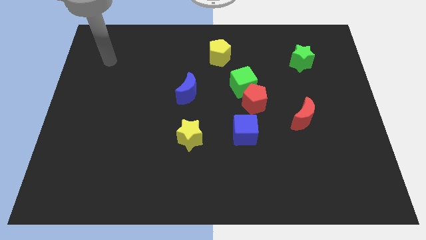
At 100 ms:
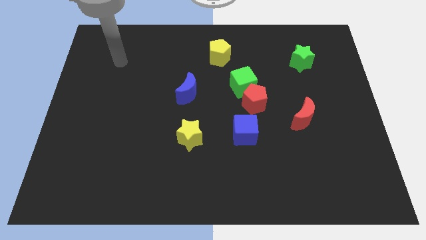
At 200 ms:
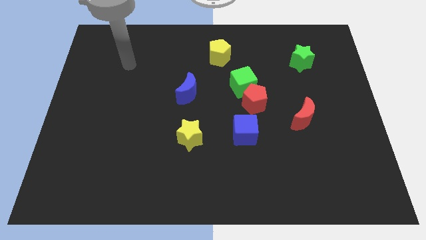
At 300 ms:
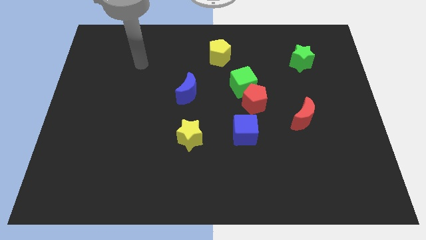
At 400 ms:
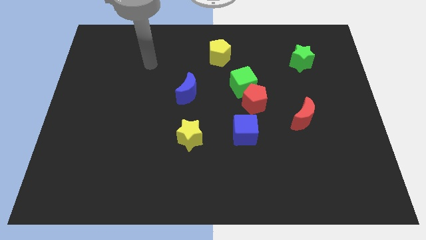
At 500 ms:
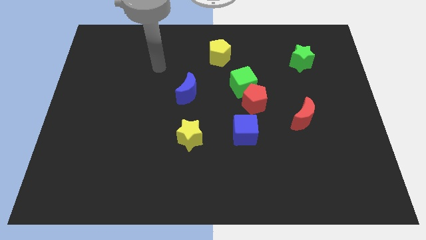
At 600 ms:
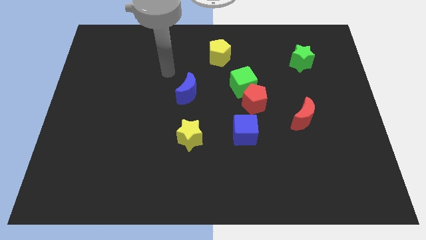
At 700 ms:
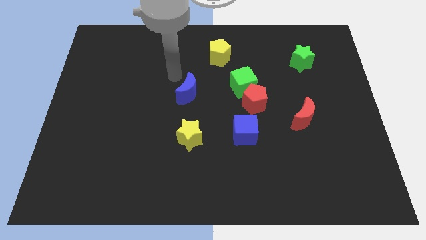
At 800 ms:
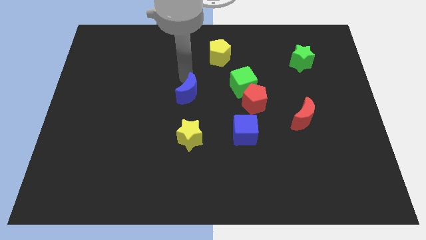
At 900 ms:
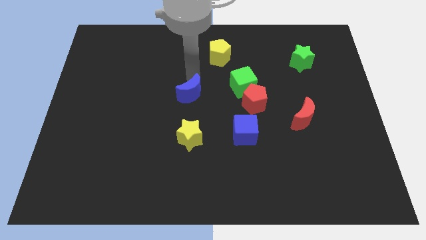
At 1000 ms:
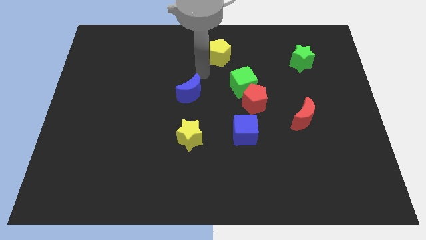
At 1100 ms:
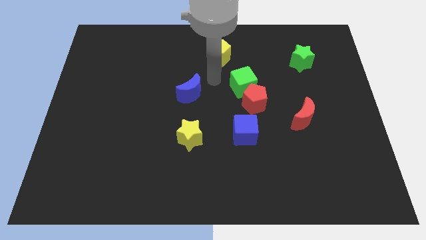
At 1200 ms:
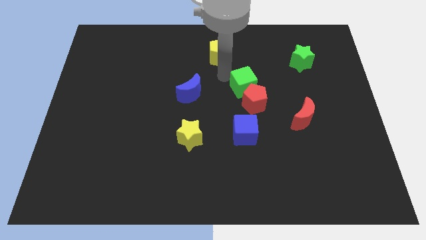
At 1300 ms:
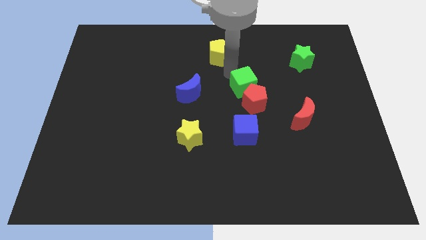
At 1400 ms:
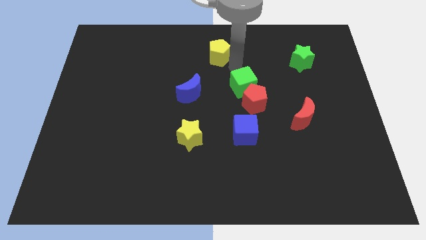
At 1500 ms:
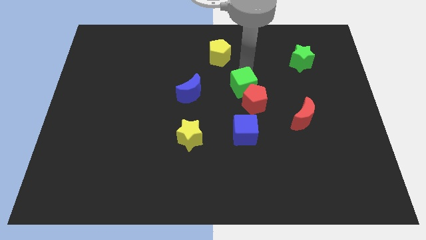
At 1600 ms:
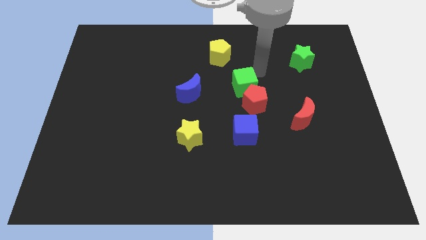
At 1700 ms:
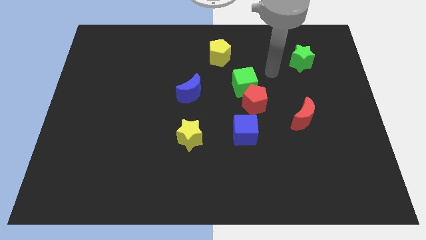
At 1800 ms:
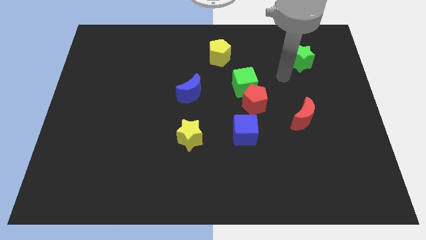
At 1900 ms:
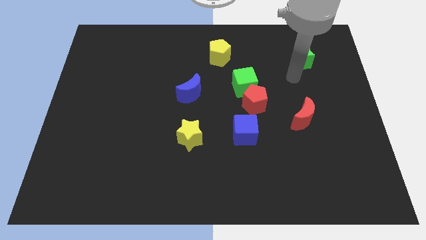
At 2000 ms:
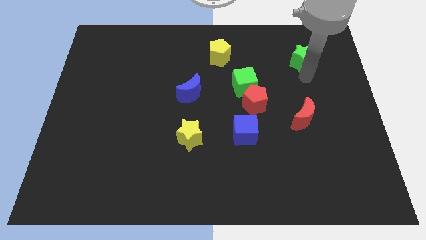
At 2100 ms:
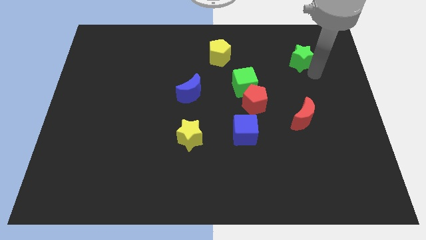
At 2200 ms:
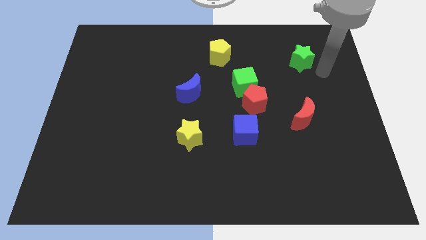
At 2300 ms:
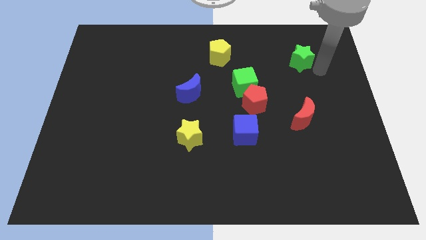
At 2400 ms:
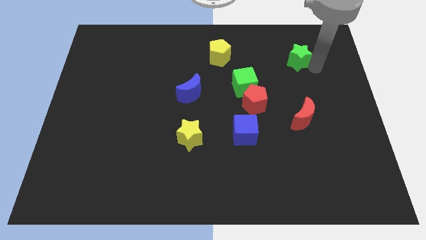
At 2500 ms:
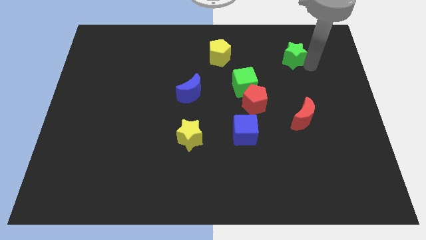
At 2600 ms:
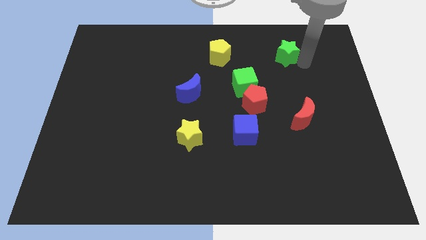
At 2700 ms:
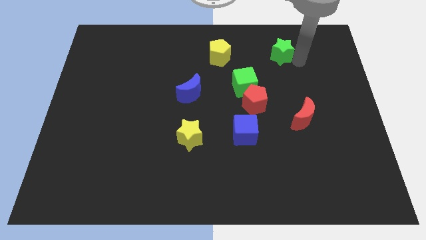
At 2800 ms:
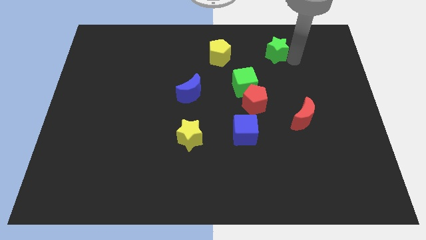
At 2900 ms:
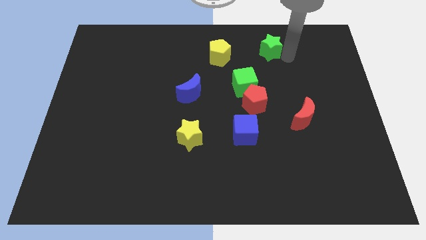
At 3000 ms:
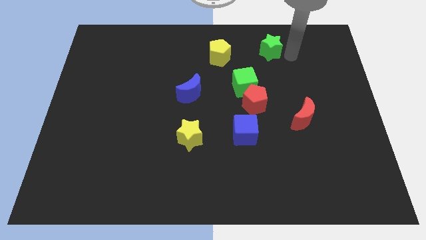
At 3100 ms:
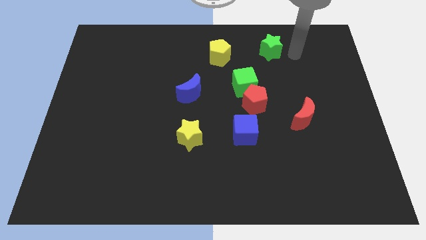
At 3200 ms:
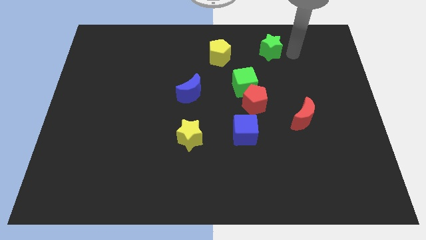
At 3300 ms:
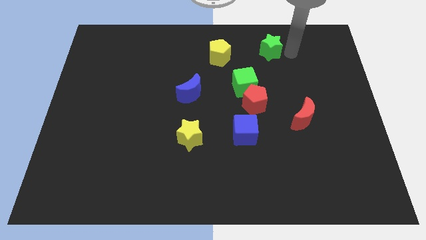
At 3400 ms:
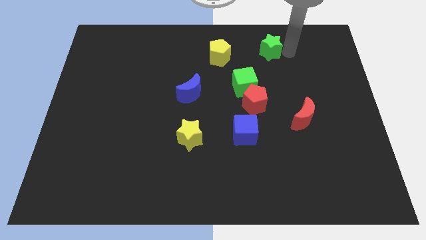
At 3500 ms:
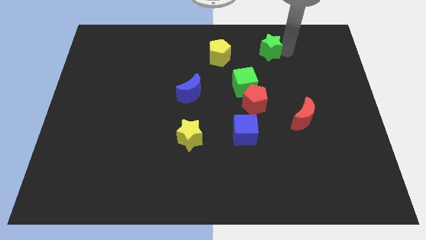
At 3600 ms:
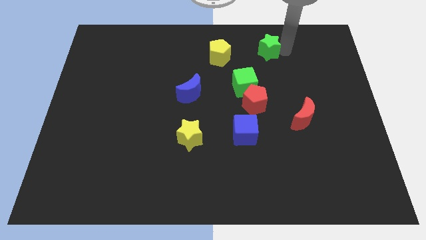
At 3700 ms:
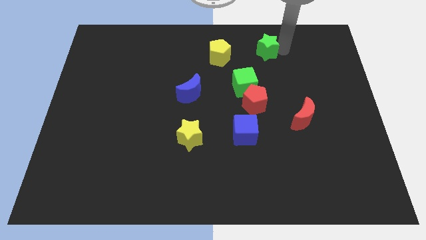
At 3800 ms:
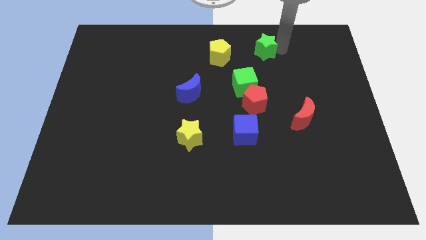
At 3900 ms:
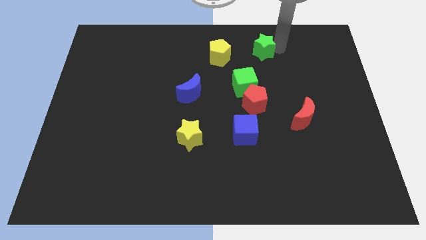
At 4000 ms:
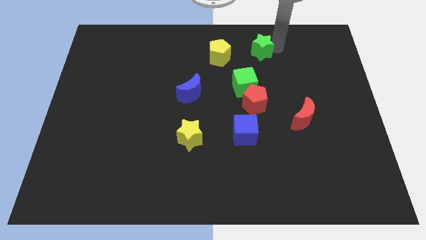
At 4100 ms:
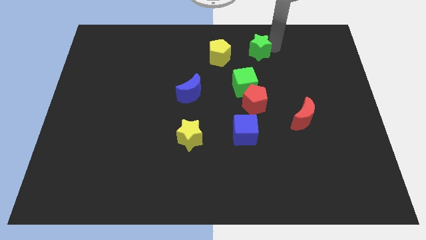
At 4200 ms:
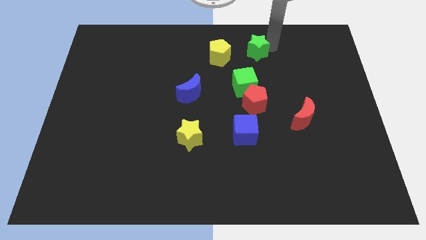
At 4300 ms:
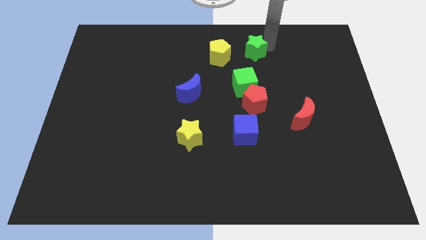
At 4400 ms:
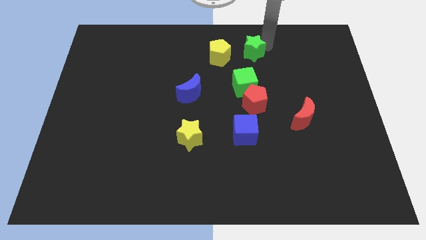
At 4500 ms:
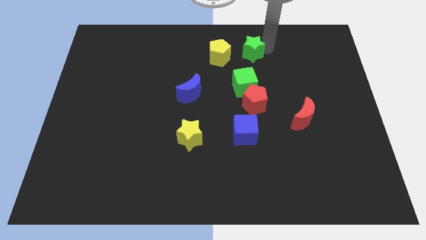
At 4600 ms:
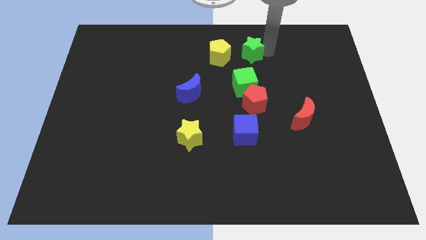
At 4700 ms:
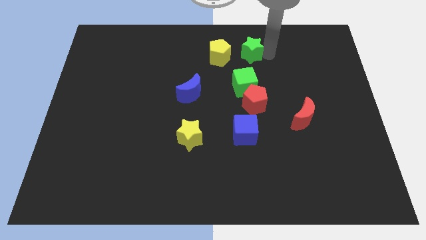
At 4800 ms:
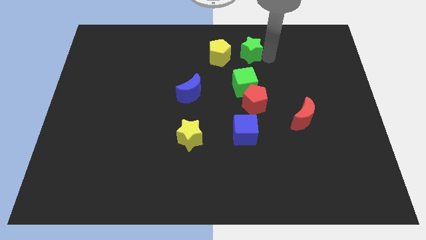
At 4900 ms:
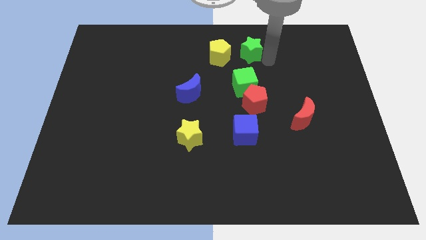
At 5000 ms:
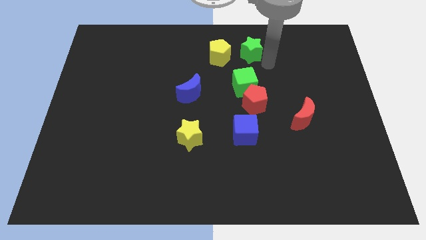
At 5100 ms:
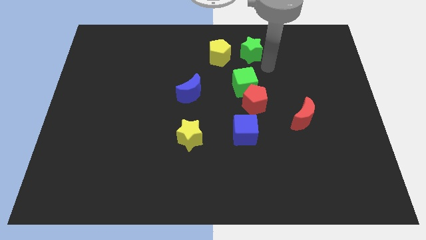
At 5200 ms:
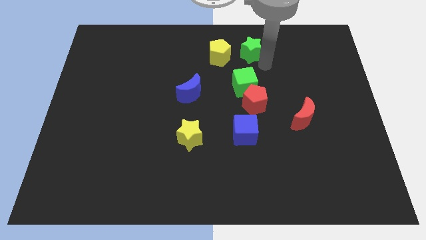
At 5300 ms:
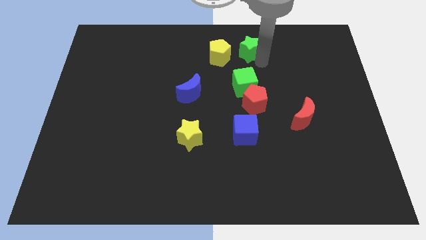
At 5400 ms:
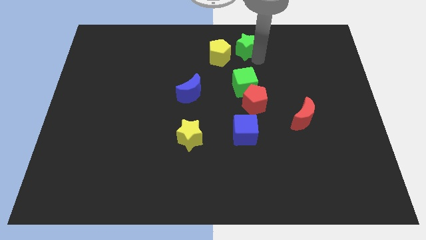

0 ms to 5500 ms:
move the green star to the top

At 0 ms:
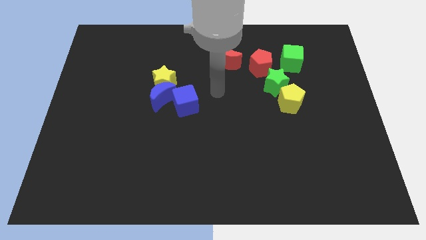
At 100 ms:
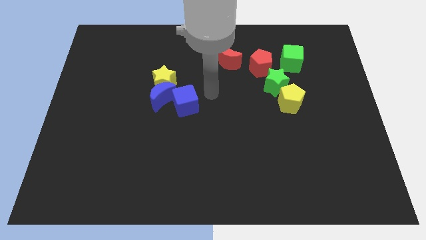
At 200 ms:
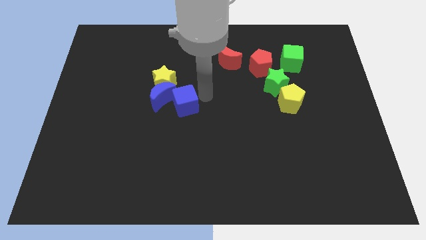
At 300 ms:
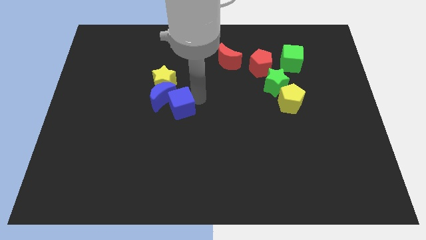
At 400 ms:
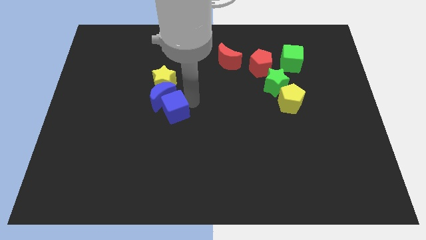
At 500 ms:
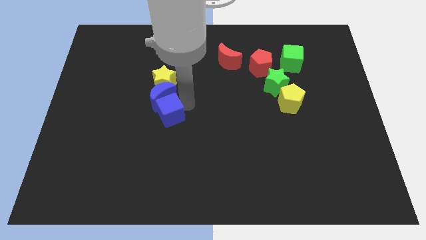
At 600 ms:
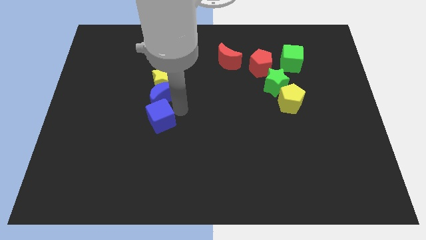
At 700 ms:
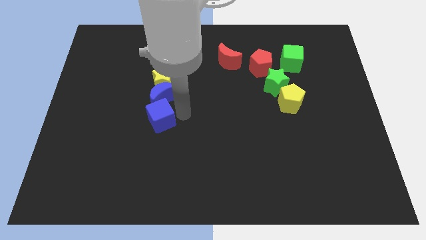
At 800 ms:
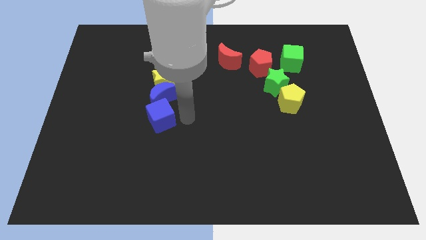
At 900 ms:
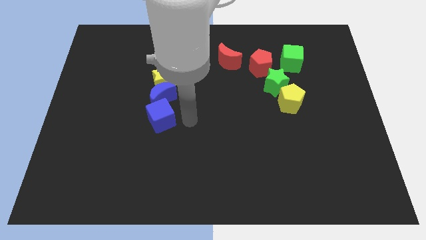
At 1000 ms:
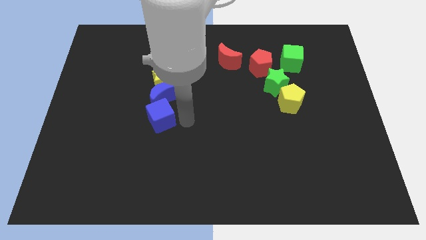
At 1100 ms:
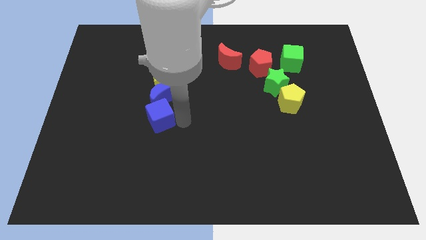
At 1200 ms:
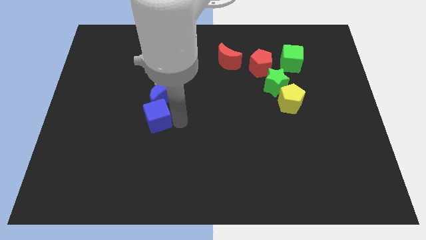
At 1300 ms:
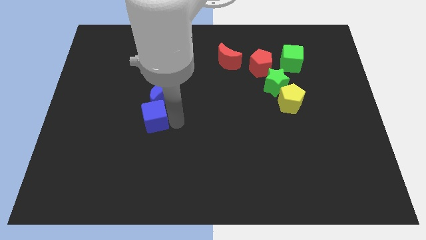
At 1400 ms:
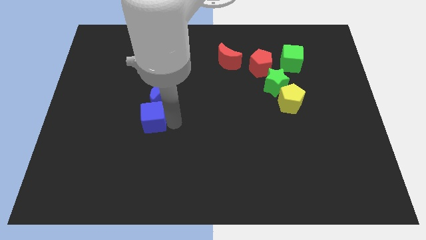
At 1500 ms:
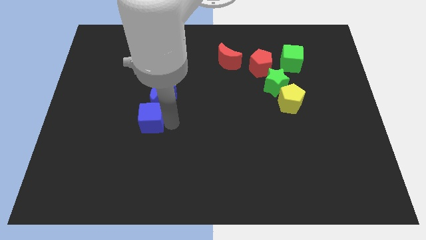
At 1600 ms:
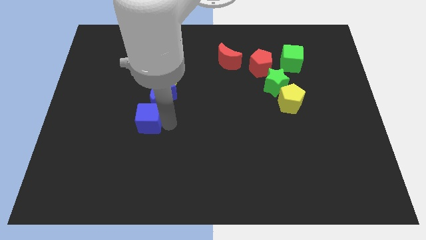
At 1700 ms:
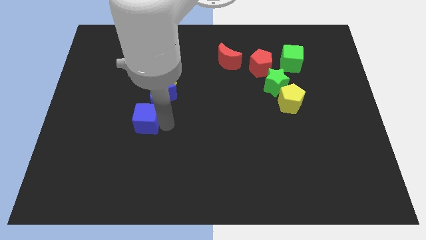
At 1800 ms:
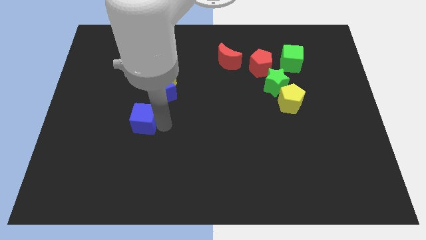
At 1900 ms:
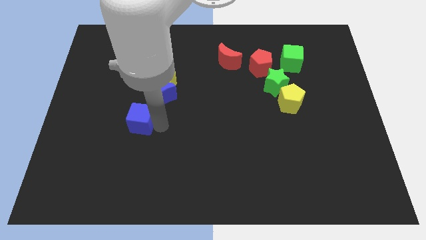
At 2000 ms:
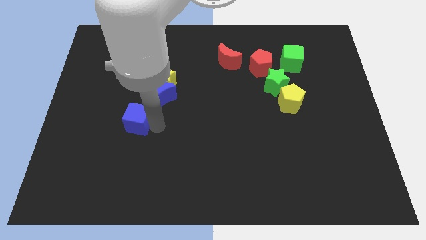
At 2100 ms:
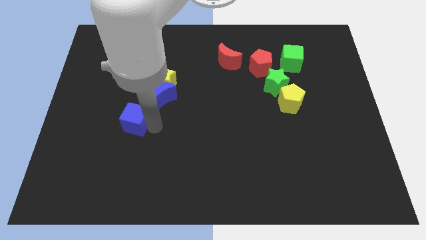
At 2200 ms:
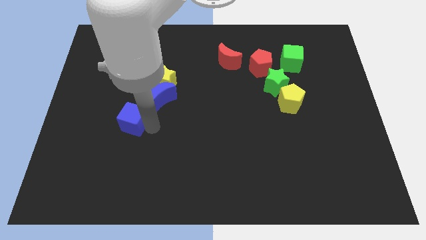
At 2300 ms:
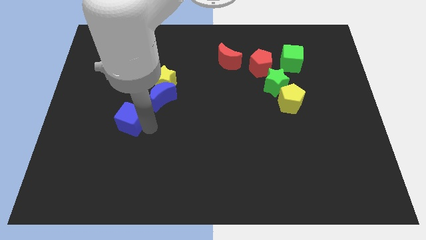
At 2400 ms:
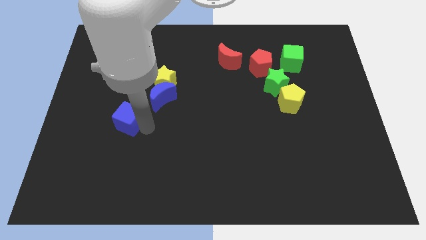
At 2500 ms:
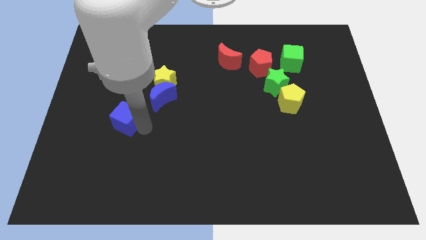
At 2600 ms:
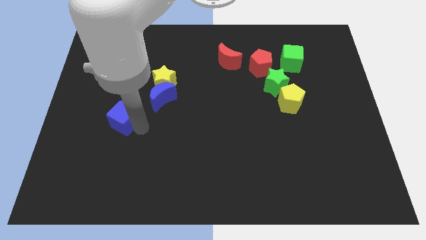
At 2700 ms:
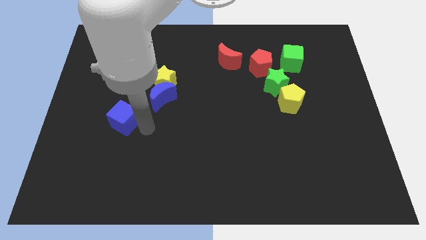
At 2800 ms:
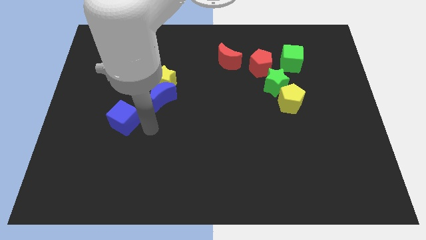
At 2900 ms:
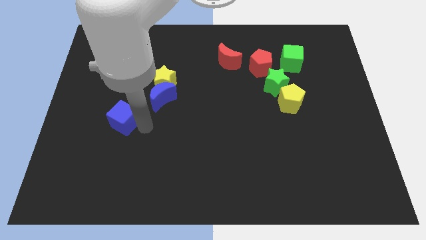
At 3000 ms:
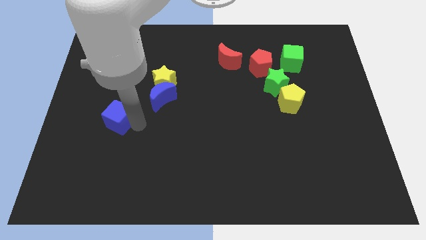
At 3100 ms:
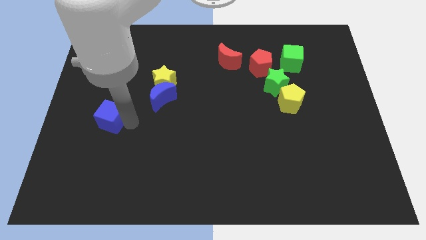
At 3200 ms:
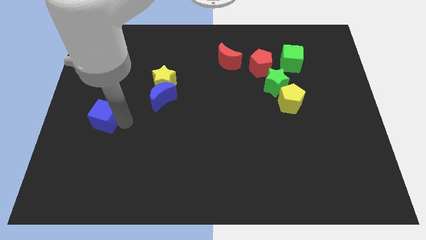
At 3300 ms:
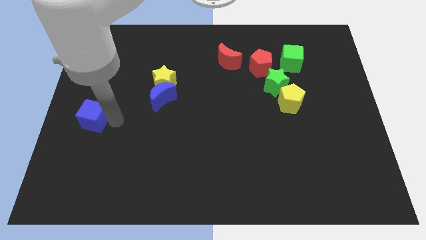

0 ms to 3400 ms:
slide the blue cube to the center left
